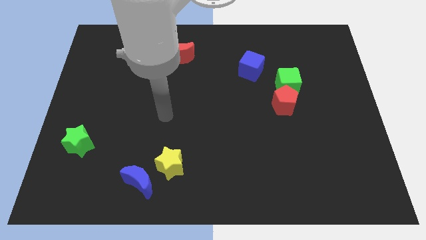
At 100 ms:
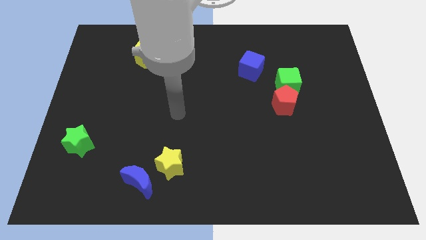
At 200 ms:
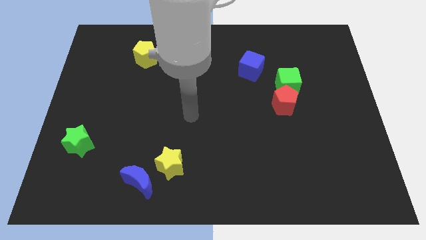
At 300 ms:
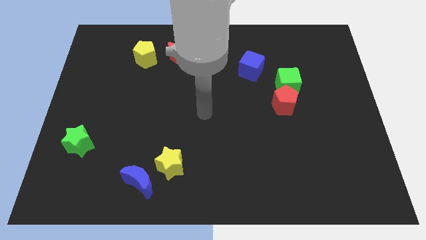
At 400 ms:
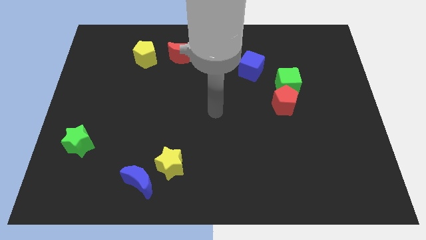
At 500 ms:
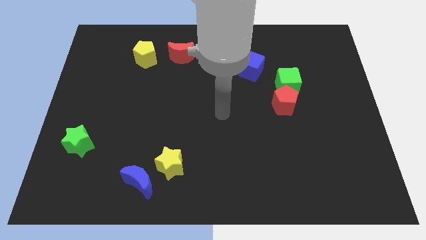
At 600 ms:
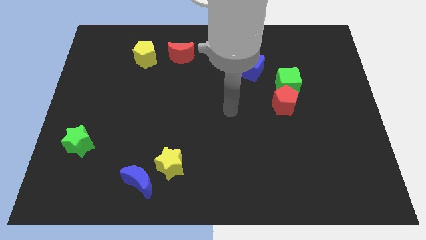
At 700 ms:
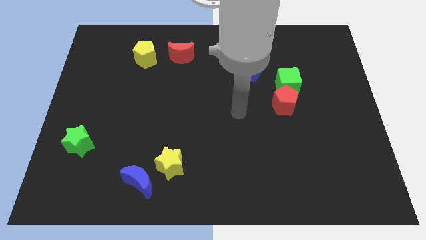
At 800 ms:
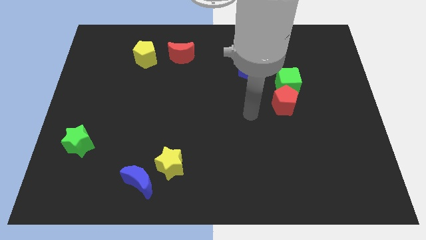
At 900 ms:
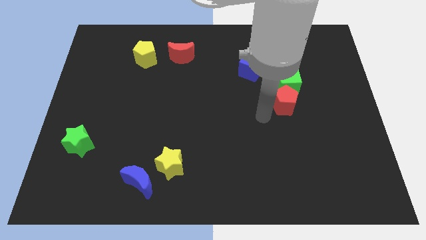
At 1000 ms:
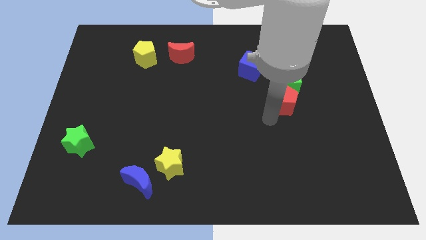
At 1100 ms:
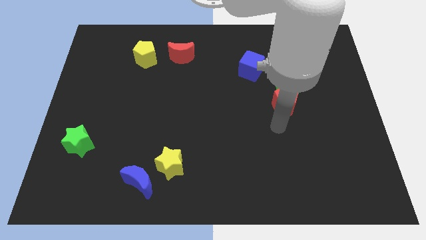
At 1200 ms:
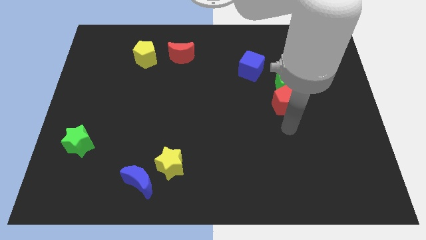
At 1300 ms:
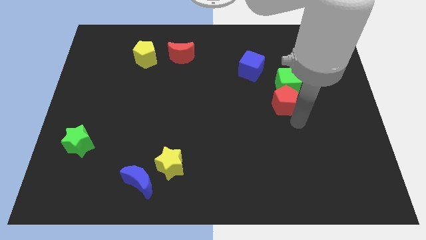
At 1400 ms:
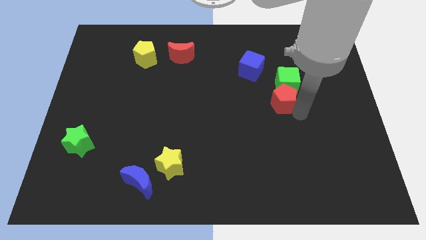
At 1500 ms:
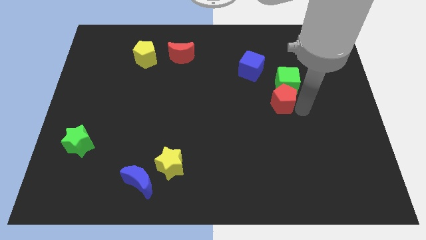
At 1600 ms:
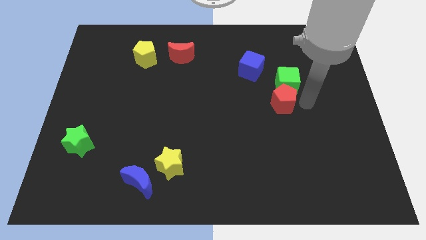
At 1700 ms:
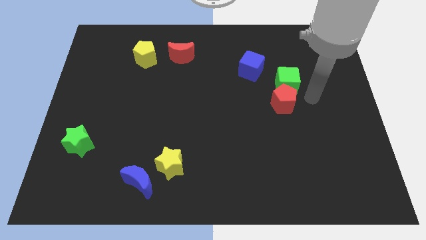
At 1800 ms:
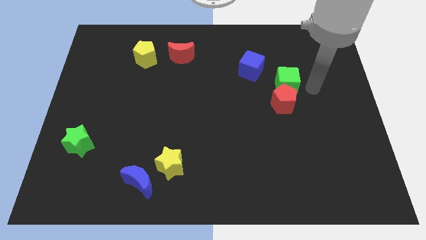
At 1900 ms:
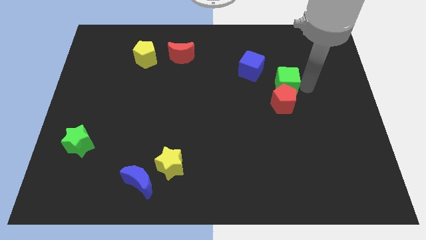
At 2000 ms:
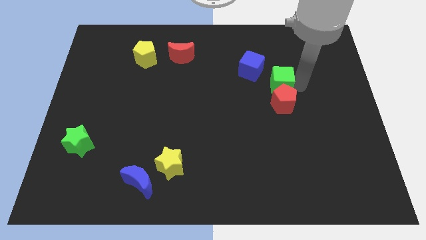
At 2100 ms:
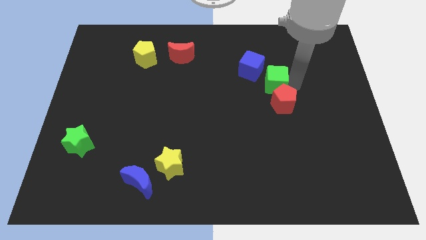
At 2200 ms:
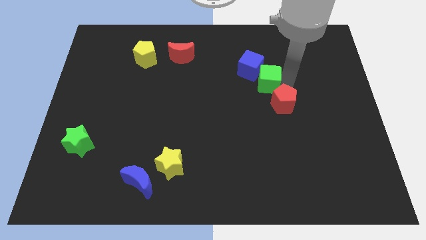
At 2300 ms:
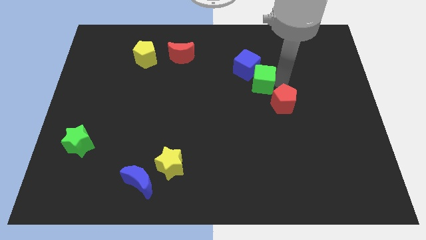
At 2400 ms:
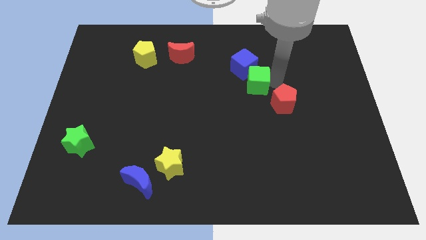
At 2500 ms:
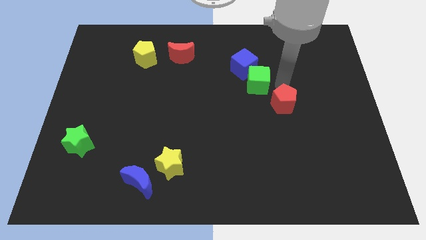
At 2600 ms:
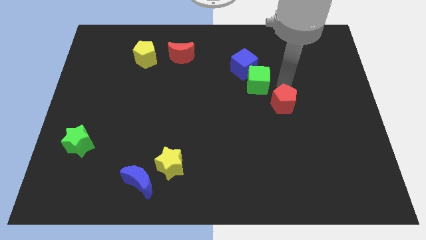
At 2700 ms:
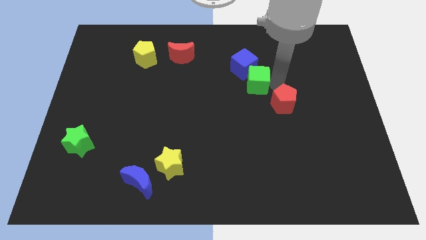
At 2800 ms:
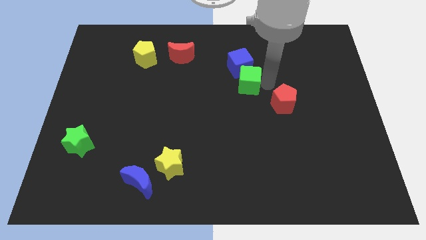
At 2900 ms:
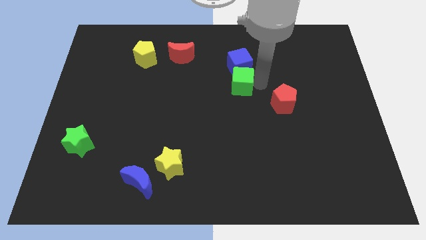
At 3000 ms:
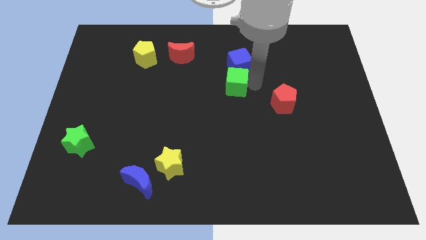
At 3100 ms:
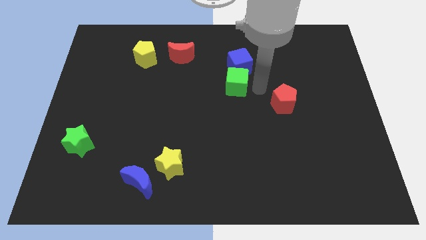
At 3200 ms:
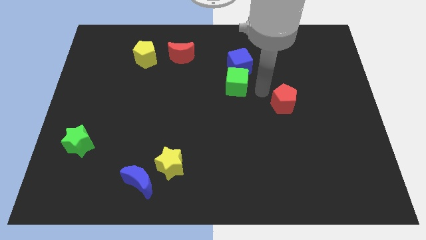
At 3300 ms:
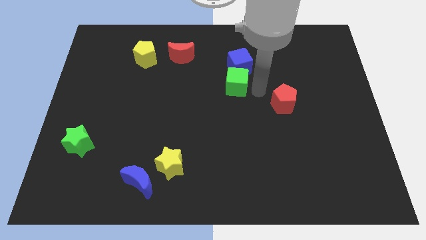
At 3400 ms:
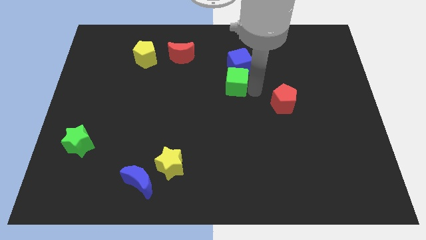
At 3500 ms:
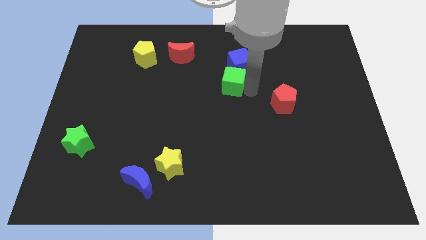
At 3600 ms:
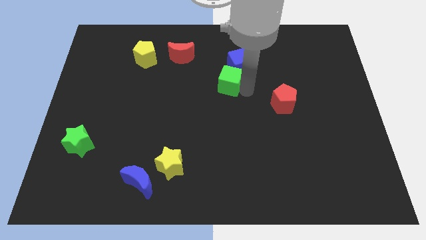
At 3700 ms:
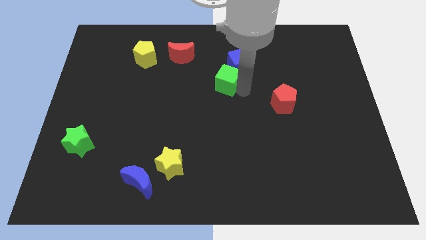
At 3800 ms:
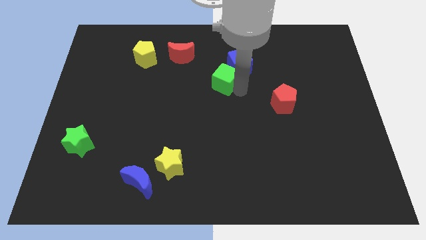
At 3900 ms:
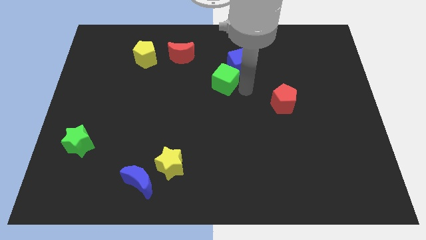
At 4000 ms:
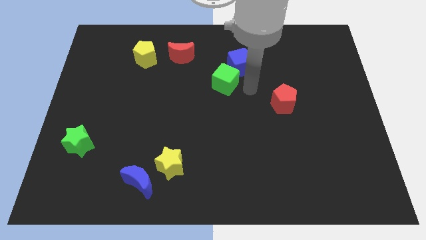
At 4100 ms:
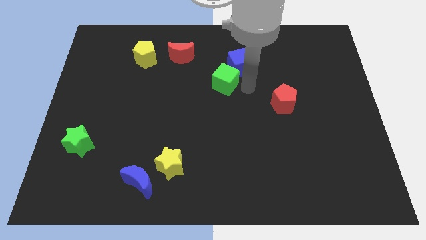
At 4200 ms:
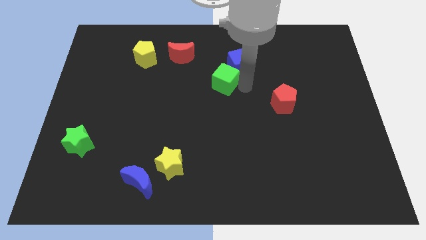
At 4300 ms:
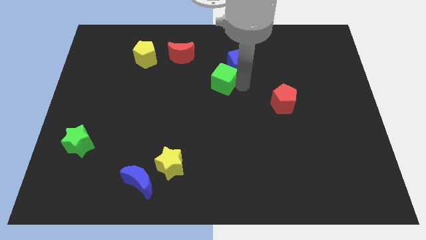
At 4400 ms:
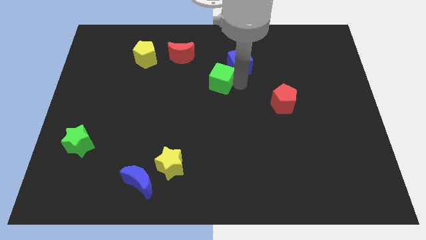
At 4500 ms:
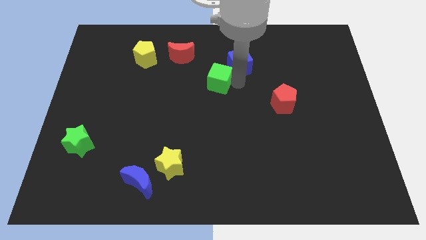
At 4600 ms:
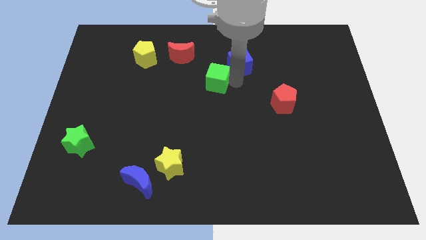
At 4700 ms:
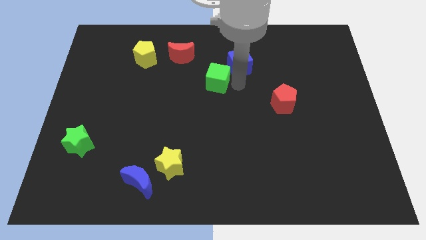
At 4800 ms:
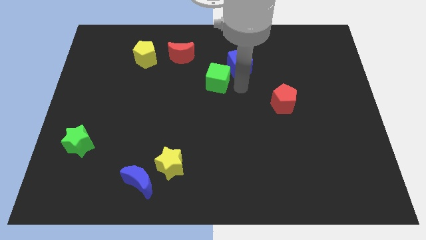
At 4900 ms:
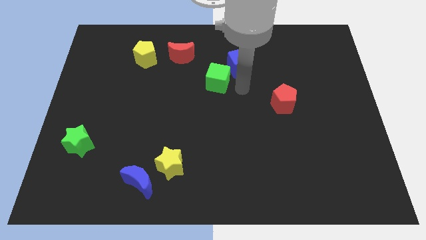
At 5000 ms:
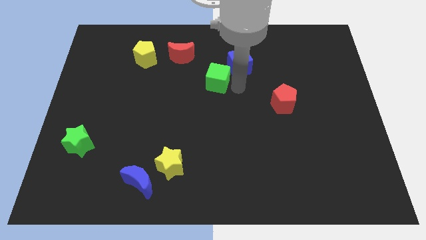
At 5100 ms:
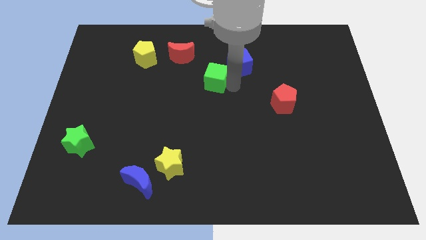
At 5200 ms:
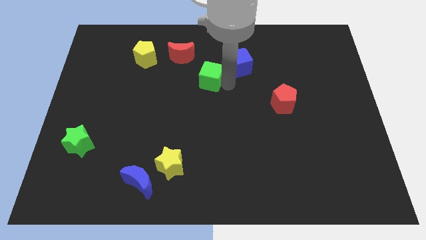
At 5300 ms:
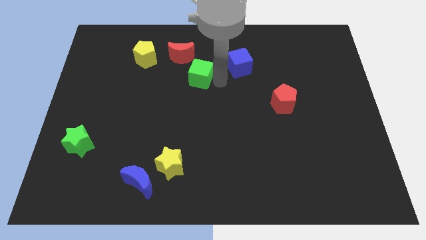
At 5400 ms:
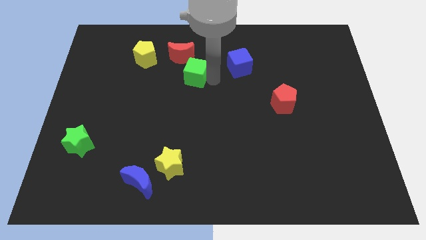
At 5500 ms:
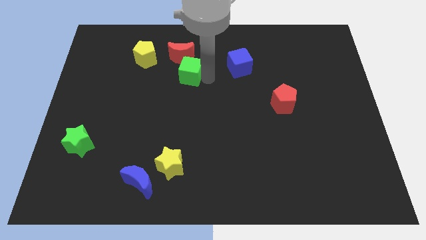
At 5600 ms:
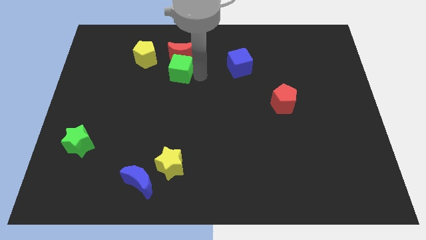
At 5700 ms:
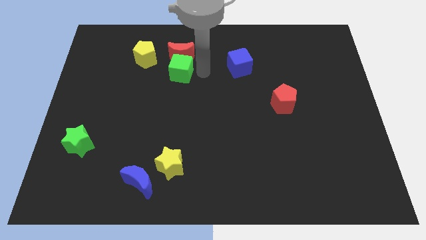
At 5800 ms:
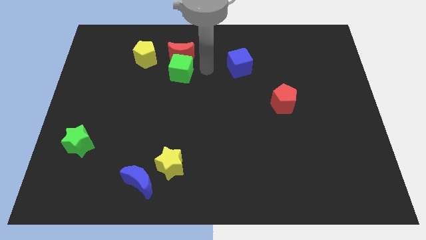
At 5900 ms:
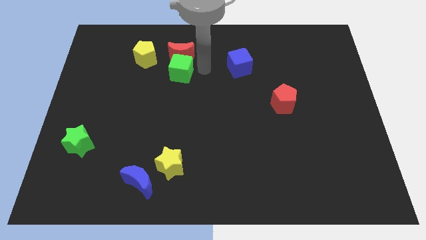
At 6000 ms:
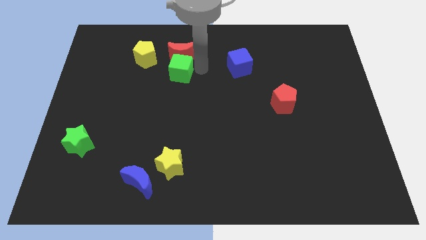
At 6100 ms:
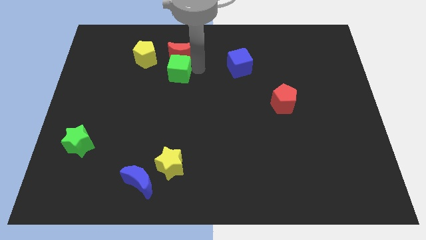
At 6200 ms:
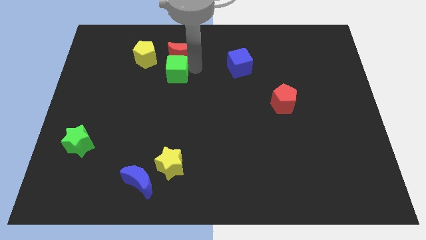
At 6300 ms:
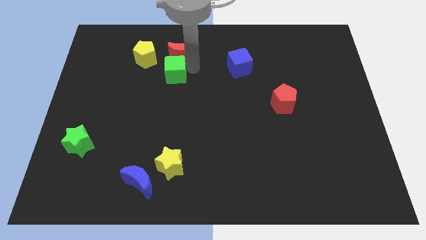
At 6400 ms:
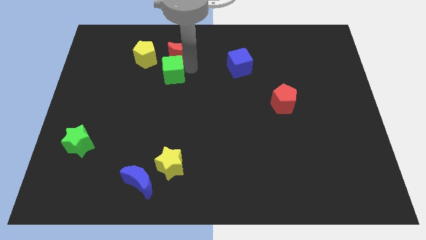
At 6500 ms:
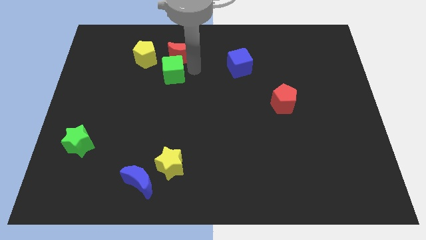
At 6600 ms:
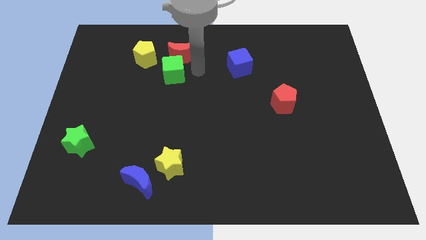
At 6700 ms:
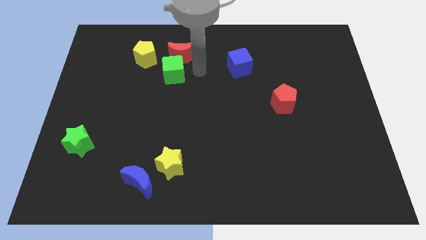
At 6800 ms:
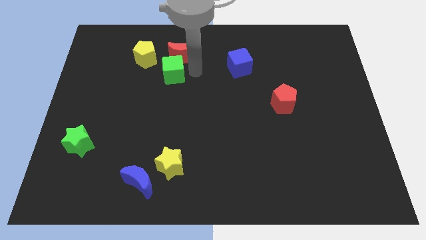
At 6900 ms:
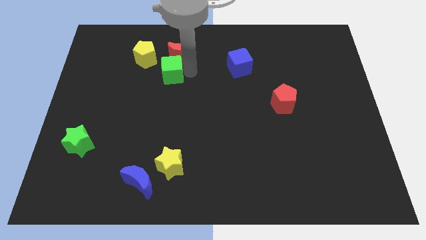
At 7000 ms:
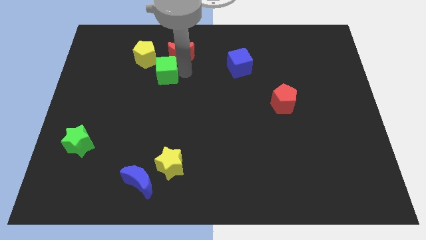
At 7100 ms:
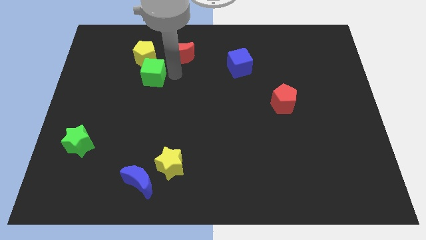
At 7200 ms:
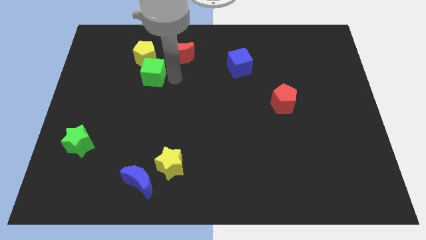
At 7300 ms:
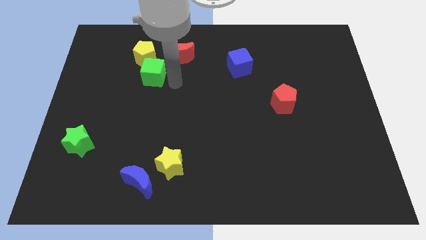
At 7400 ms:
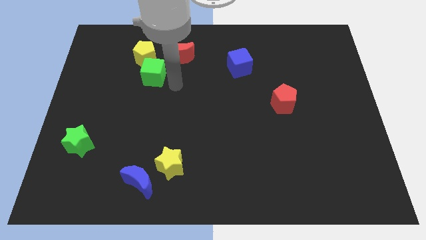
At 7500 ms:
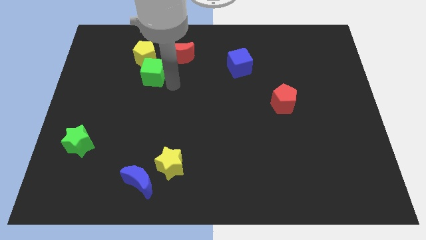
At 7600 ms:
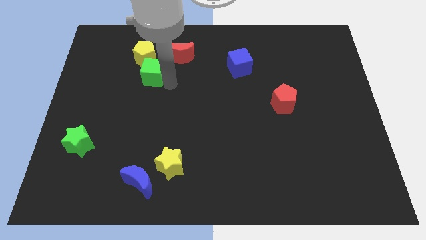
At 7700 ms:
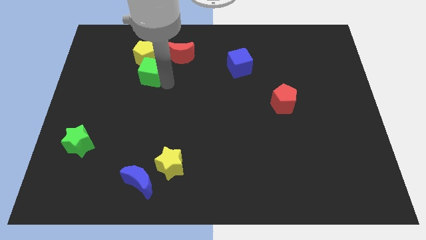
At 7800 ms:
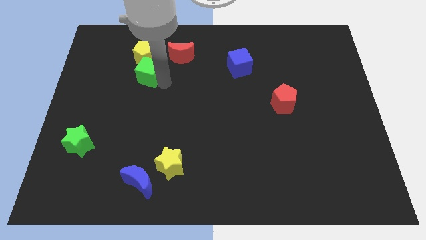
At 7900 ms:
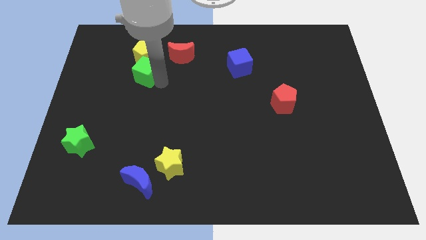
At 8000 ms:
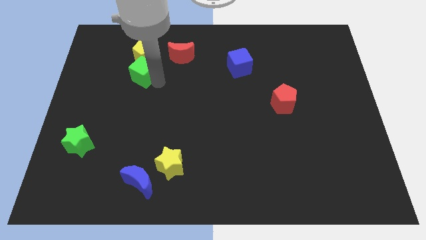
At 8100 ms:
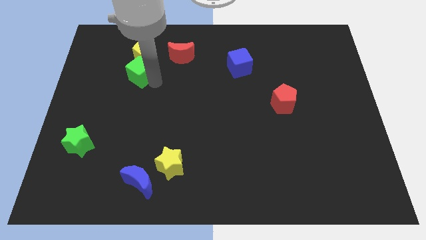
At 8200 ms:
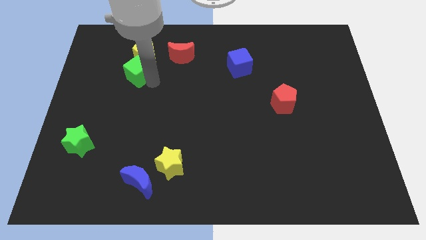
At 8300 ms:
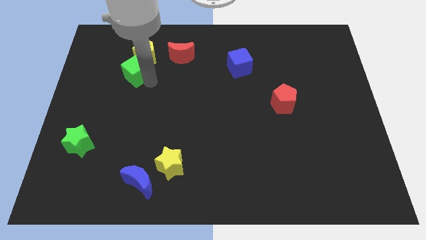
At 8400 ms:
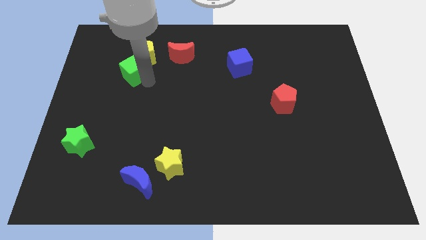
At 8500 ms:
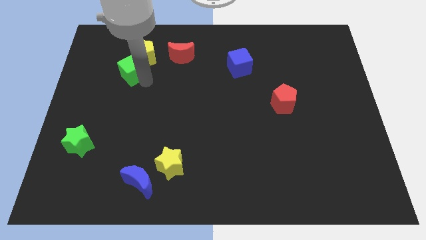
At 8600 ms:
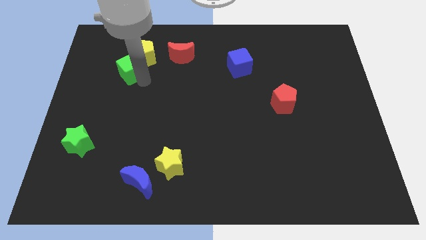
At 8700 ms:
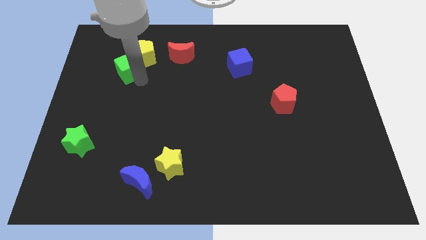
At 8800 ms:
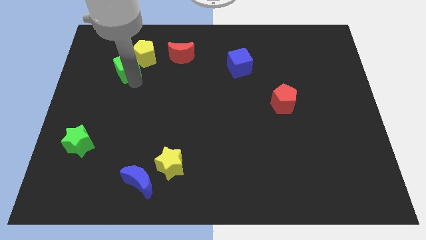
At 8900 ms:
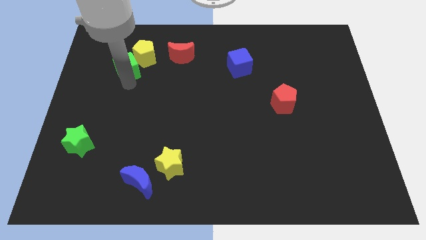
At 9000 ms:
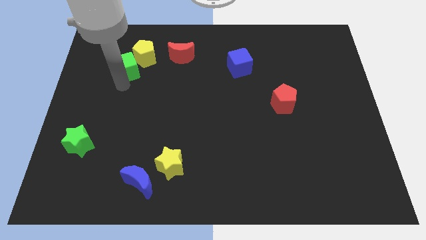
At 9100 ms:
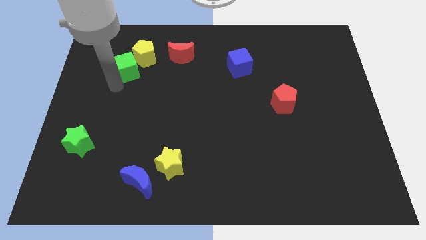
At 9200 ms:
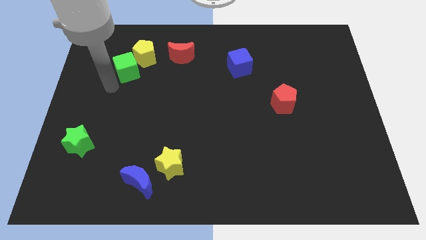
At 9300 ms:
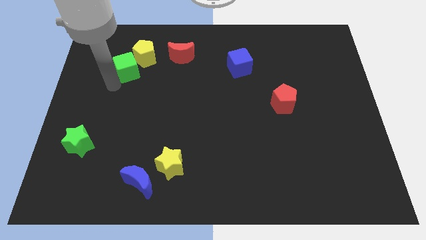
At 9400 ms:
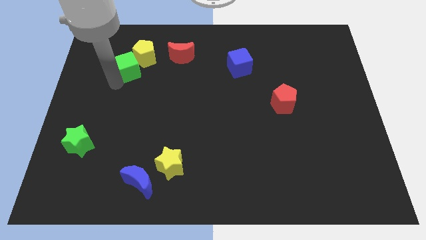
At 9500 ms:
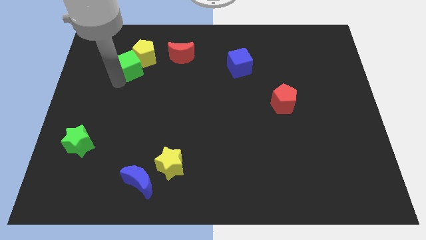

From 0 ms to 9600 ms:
push the green cube to the left side of the red moon
